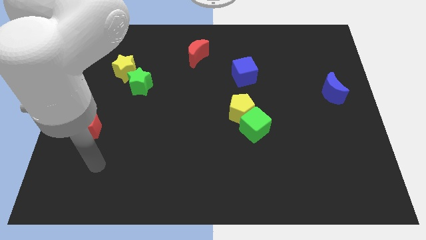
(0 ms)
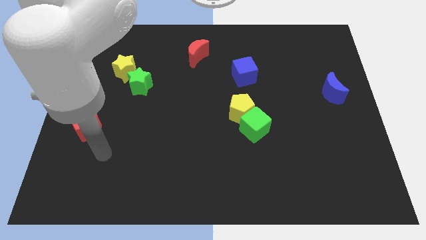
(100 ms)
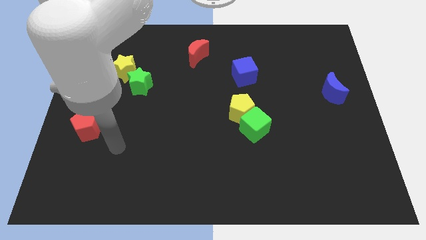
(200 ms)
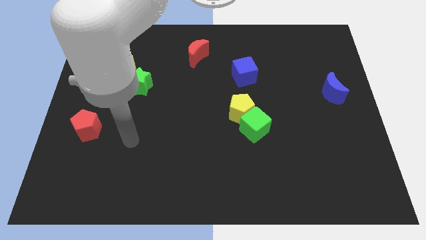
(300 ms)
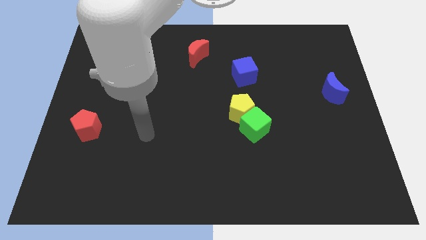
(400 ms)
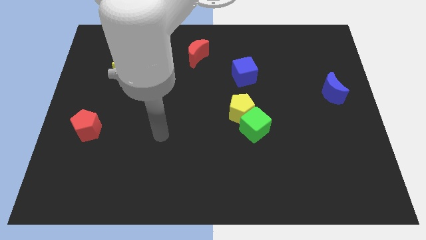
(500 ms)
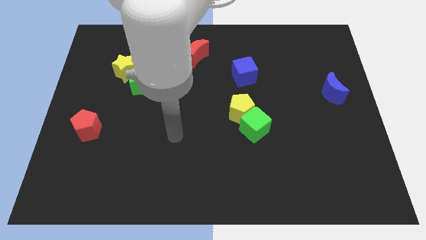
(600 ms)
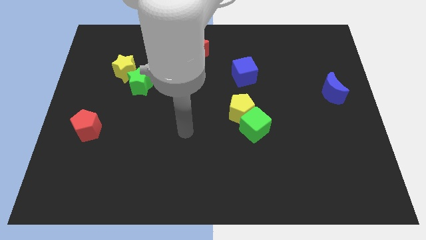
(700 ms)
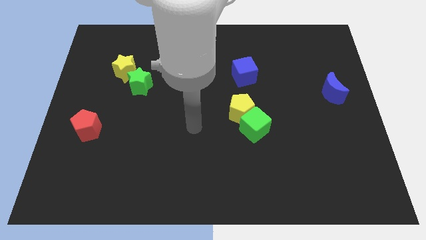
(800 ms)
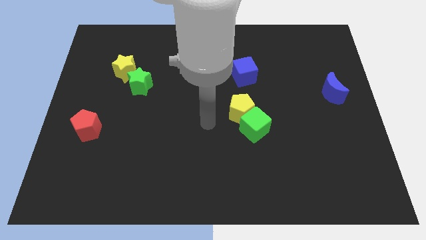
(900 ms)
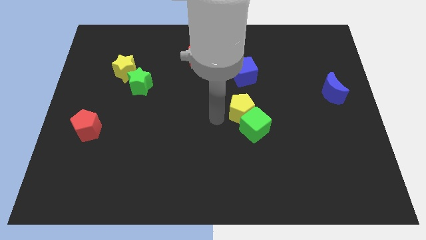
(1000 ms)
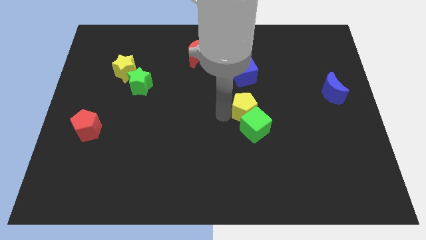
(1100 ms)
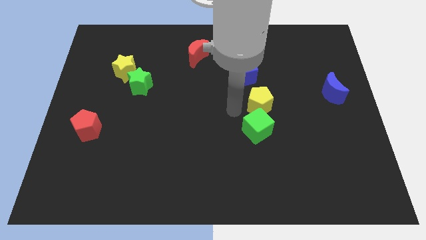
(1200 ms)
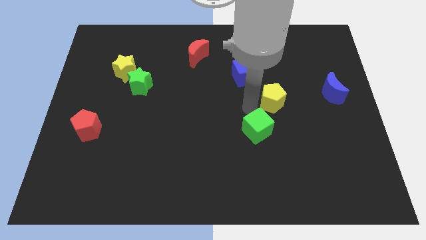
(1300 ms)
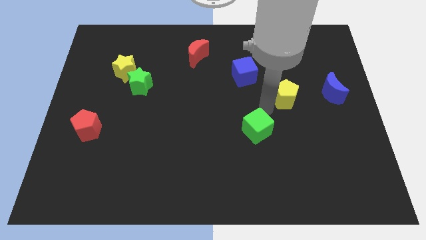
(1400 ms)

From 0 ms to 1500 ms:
move the green cube away from the yellow pentagon

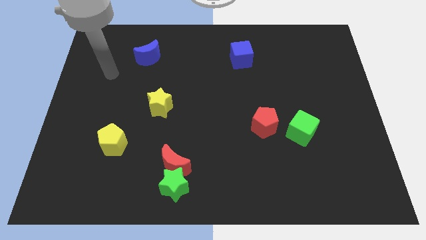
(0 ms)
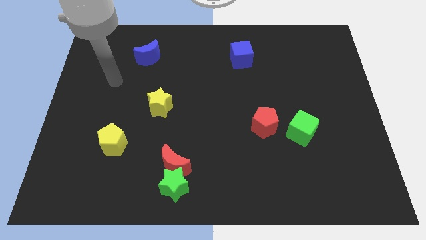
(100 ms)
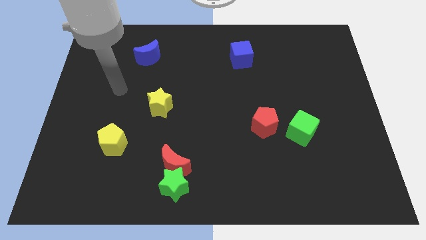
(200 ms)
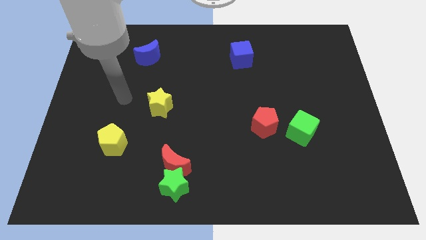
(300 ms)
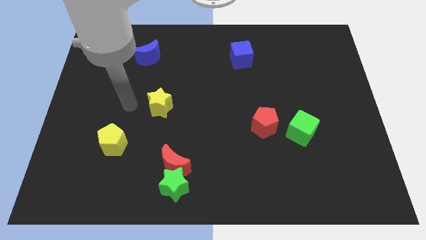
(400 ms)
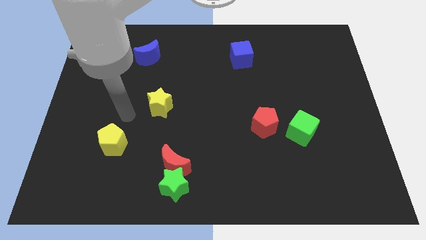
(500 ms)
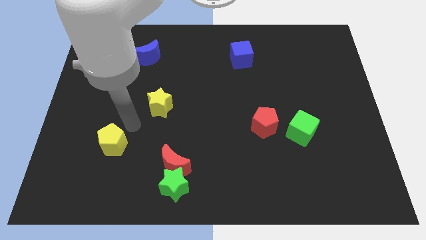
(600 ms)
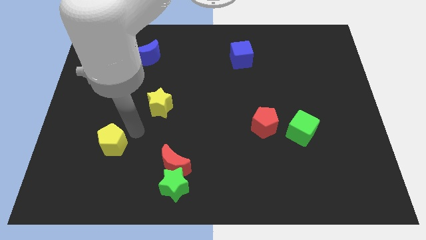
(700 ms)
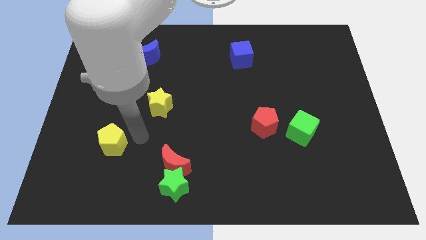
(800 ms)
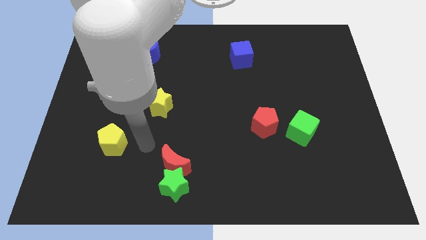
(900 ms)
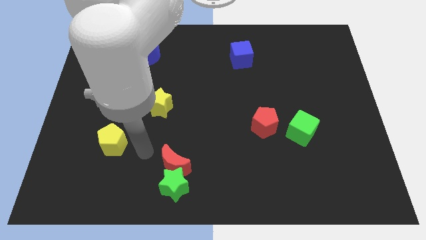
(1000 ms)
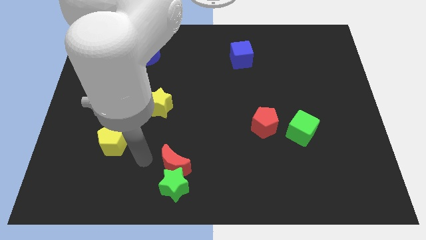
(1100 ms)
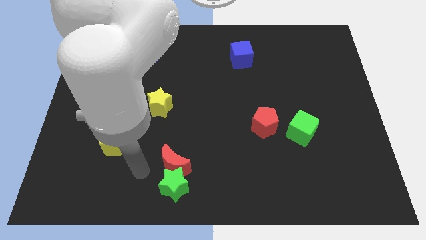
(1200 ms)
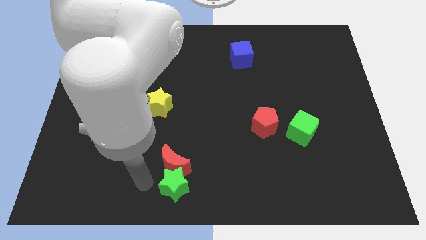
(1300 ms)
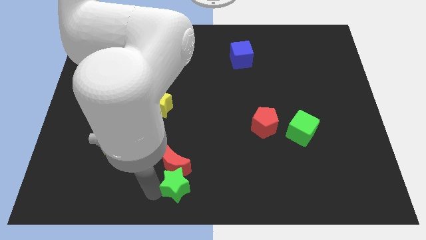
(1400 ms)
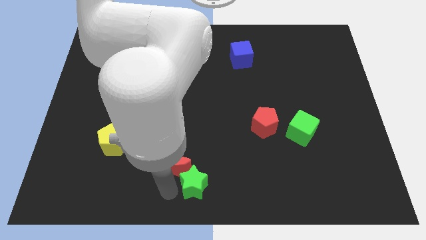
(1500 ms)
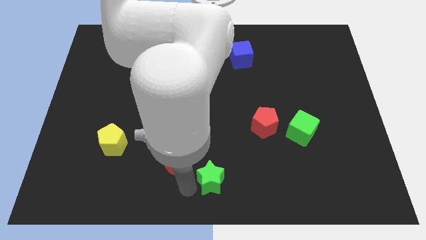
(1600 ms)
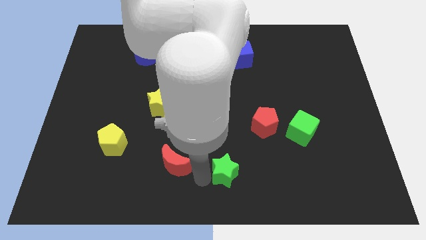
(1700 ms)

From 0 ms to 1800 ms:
pull the red moon apart from the green star

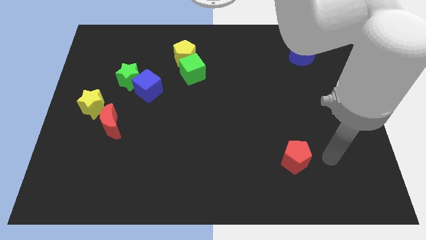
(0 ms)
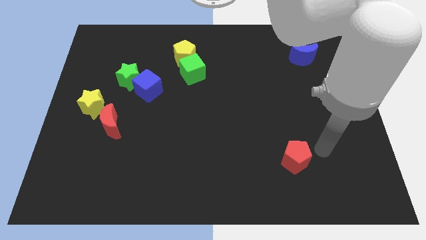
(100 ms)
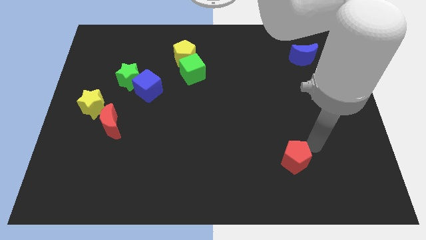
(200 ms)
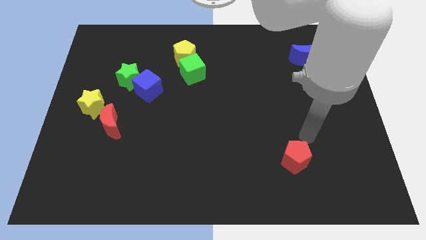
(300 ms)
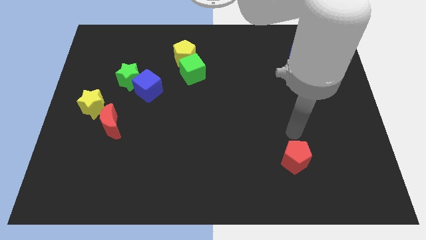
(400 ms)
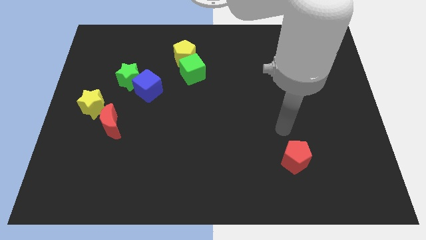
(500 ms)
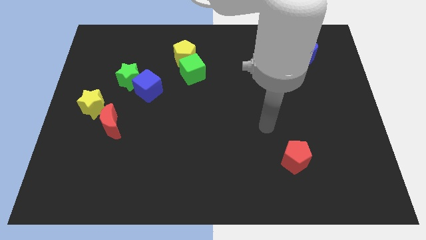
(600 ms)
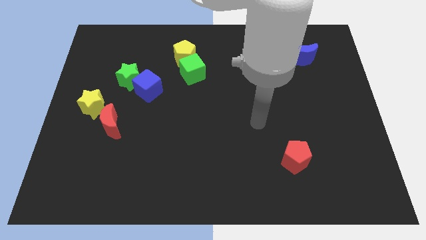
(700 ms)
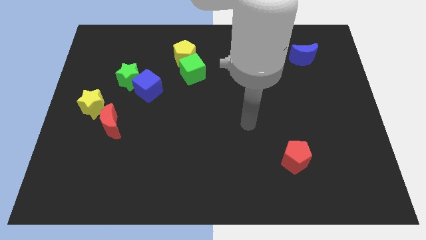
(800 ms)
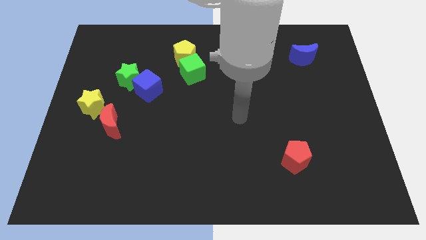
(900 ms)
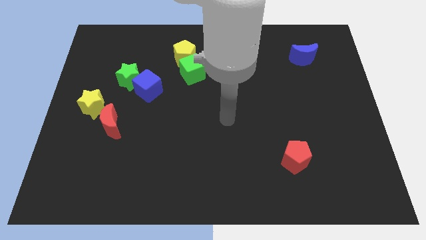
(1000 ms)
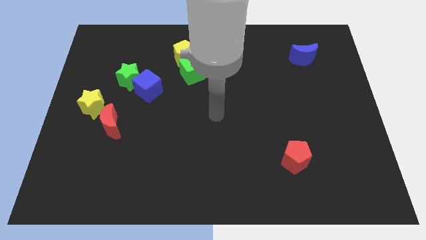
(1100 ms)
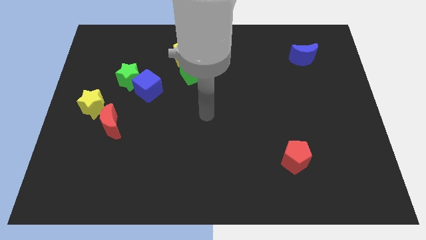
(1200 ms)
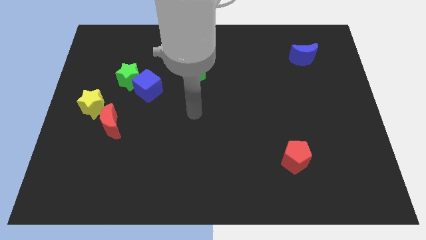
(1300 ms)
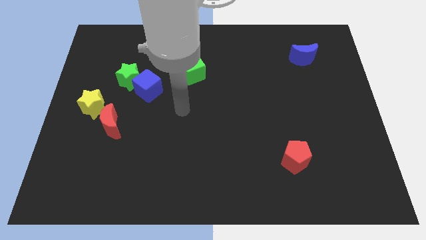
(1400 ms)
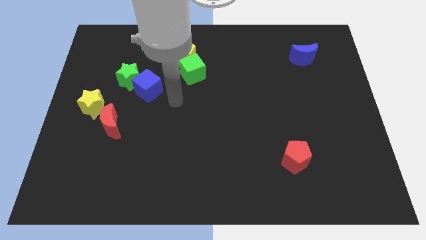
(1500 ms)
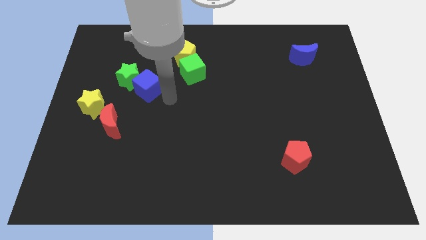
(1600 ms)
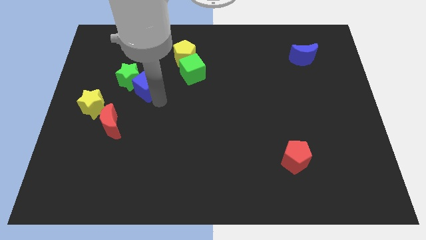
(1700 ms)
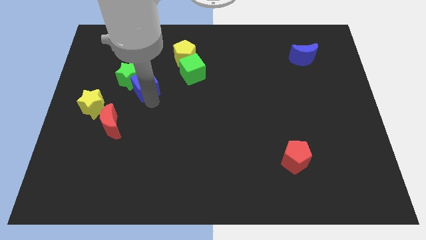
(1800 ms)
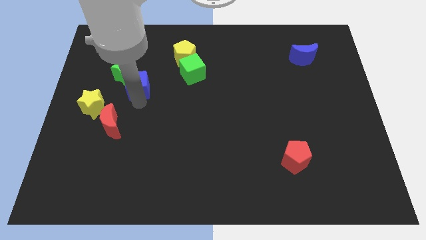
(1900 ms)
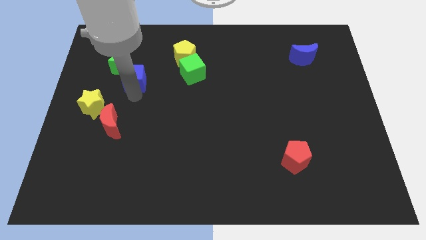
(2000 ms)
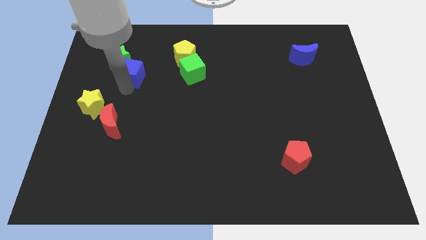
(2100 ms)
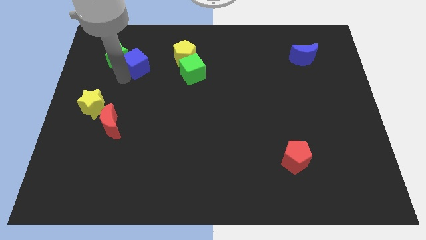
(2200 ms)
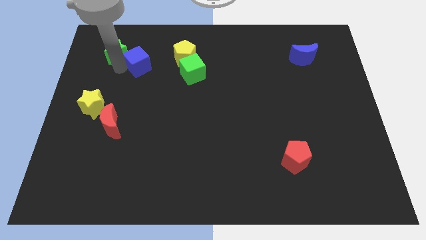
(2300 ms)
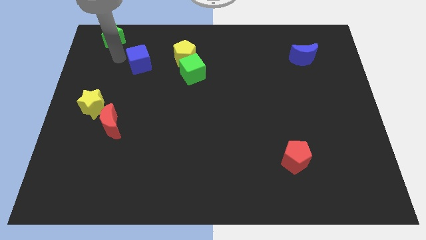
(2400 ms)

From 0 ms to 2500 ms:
move the blue cube away from the green star

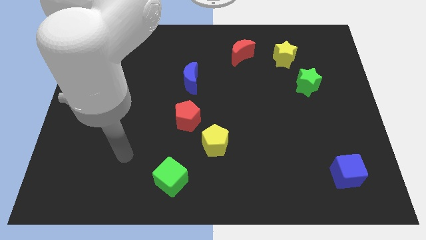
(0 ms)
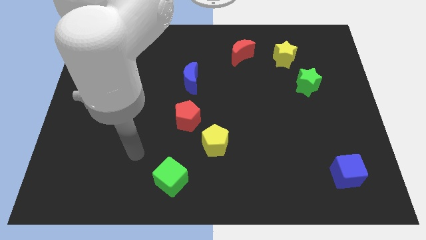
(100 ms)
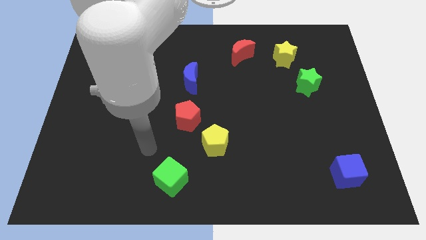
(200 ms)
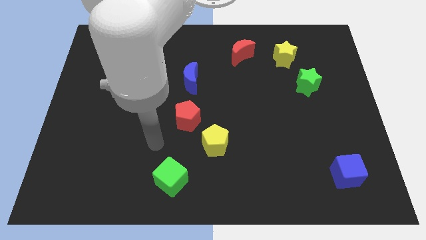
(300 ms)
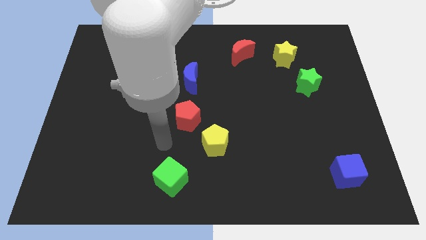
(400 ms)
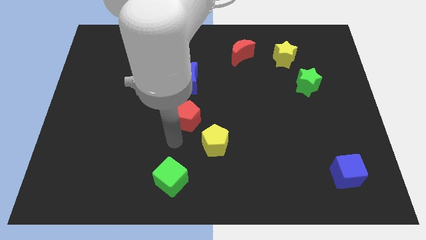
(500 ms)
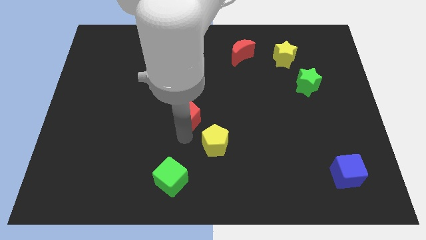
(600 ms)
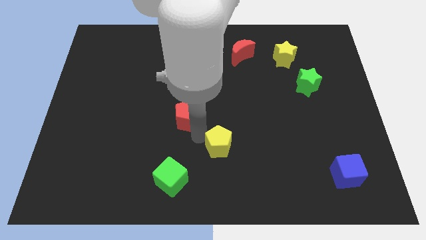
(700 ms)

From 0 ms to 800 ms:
pull the red pentagon apart from the yellow pentagon

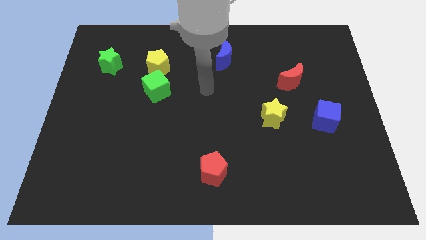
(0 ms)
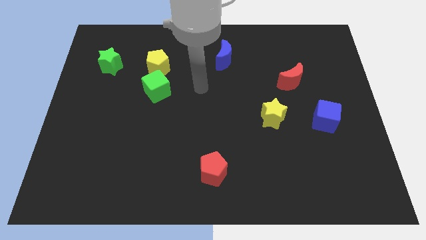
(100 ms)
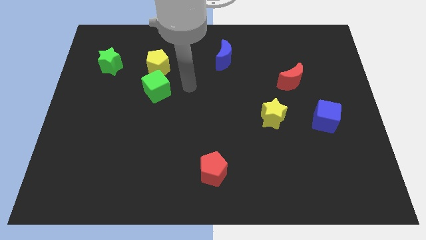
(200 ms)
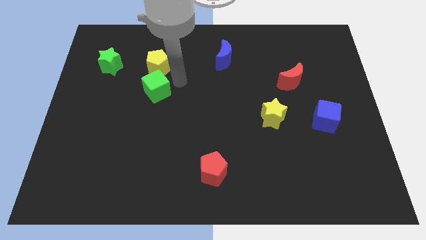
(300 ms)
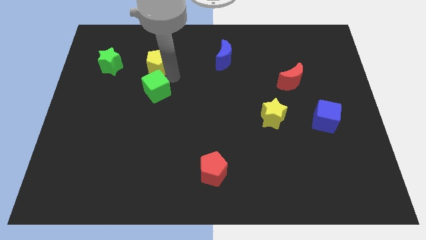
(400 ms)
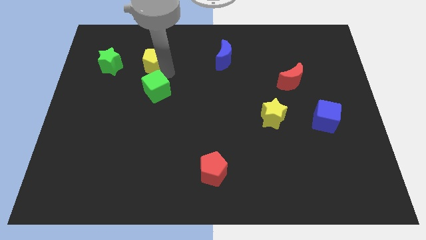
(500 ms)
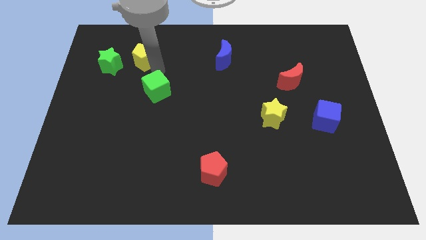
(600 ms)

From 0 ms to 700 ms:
pull the green cube apart from the yellow pentagon

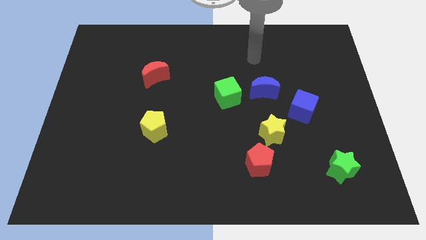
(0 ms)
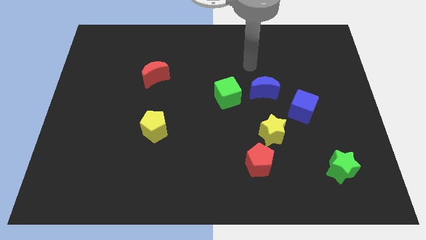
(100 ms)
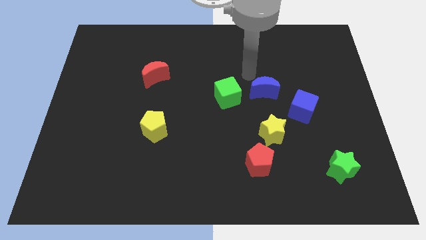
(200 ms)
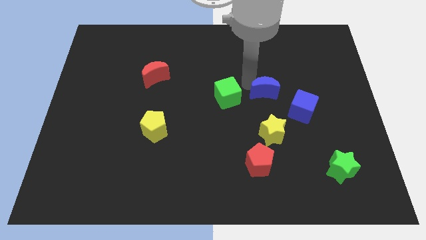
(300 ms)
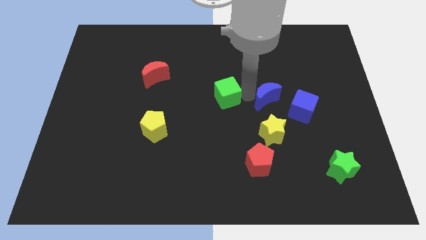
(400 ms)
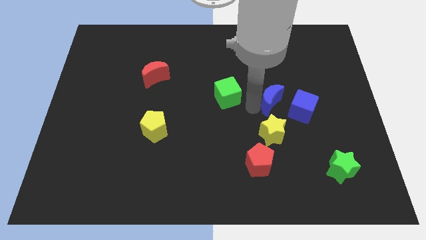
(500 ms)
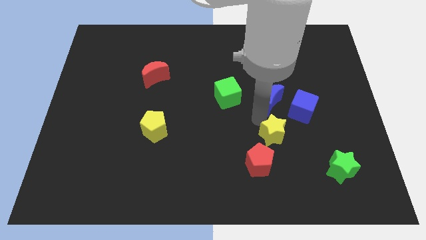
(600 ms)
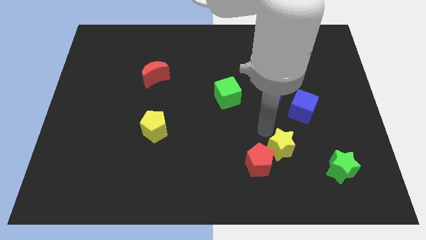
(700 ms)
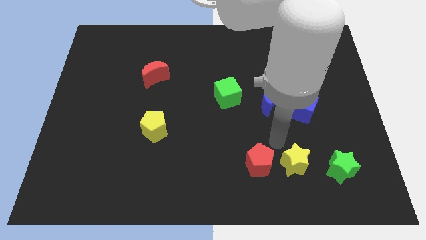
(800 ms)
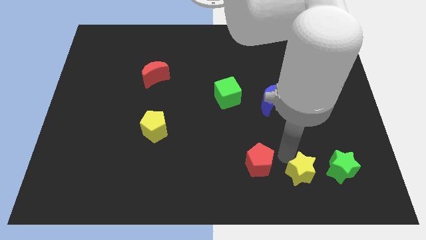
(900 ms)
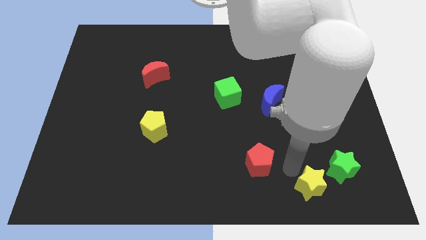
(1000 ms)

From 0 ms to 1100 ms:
move the red pentagon away from the yellow star

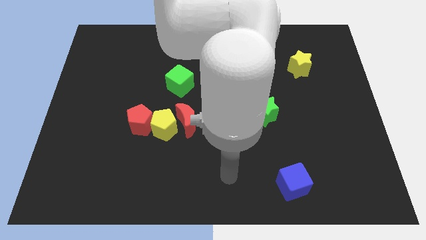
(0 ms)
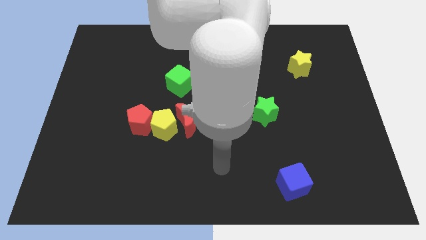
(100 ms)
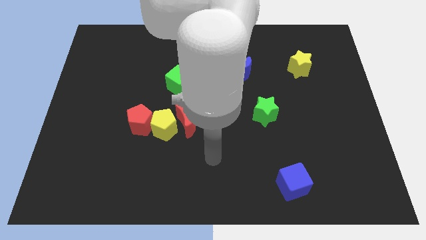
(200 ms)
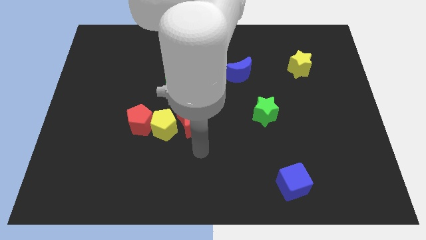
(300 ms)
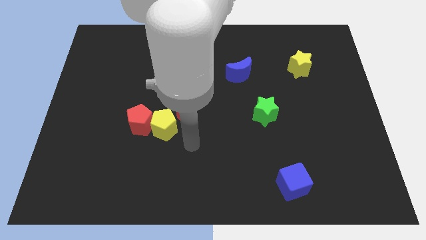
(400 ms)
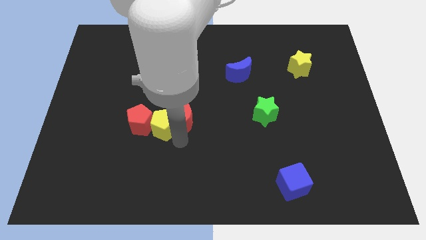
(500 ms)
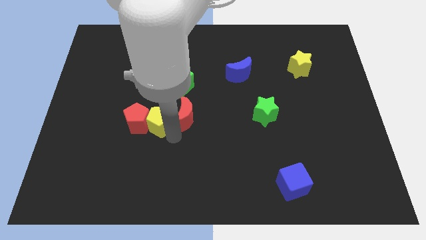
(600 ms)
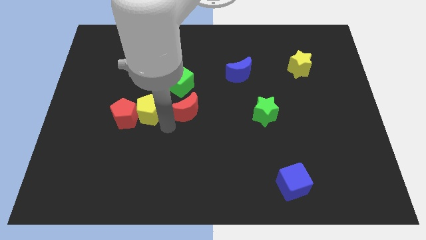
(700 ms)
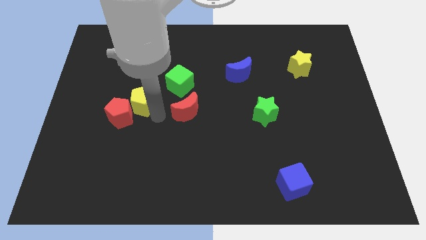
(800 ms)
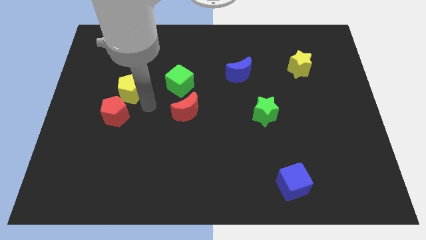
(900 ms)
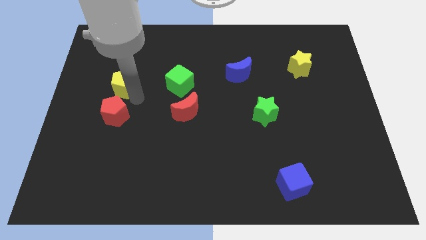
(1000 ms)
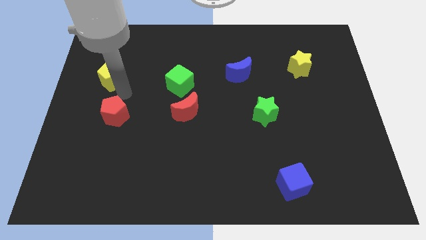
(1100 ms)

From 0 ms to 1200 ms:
move the red pentagon away from the yellow pentagon
